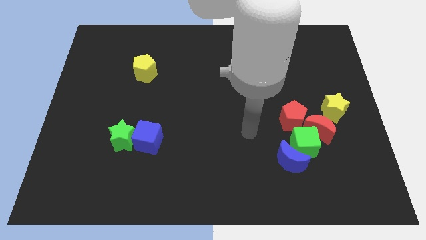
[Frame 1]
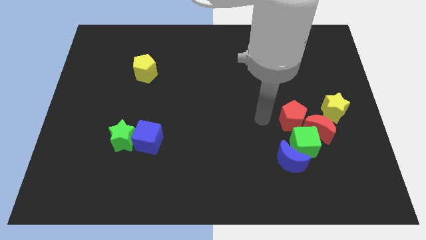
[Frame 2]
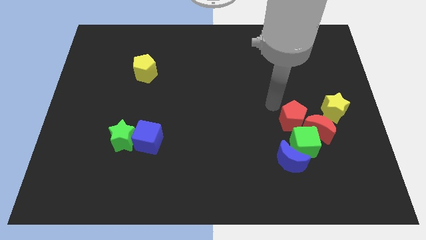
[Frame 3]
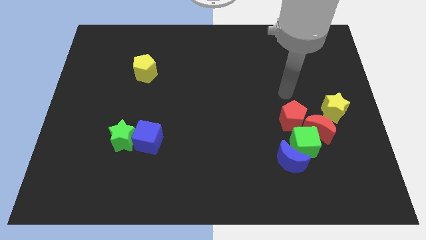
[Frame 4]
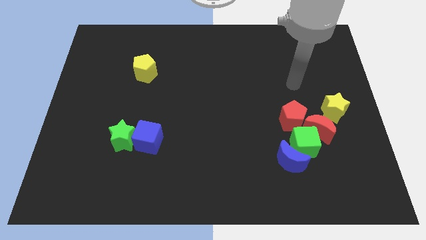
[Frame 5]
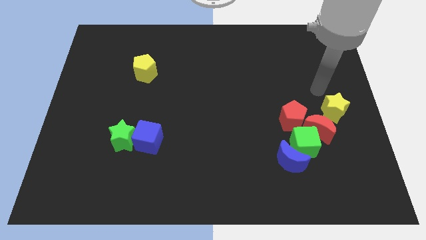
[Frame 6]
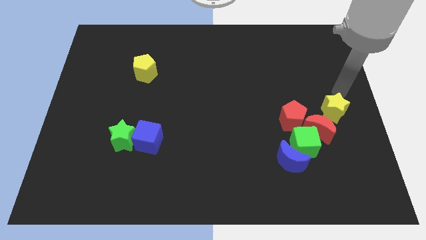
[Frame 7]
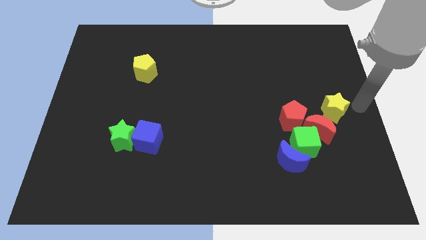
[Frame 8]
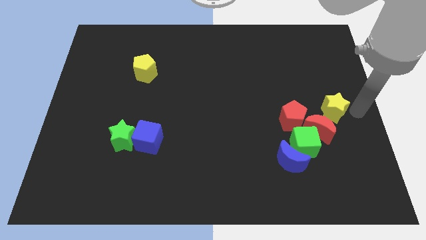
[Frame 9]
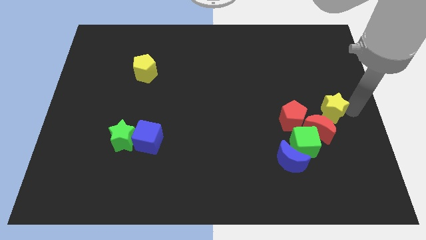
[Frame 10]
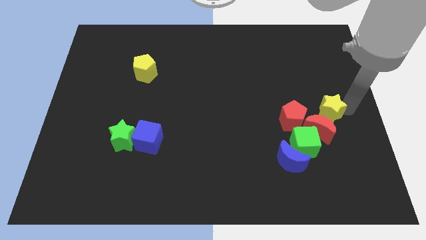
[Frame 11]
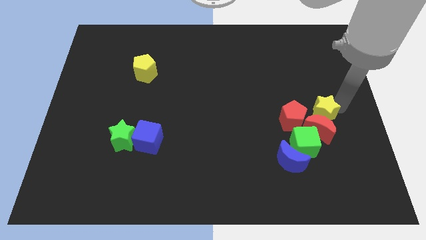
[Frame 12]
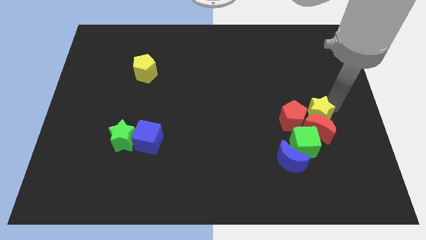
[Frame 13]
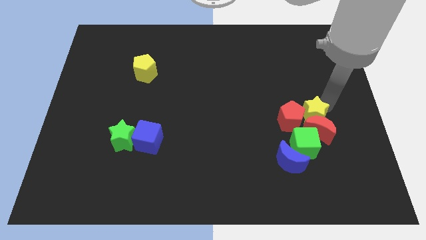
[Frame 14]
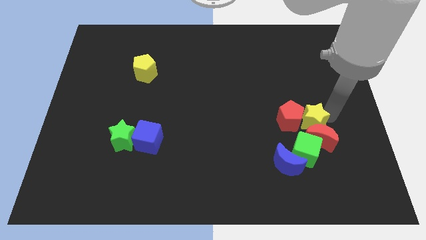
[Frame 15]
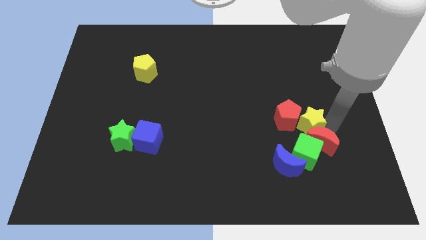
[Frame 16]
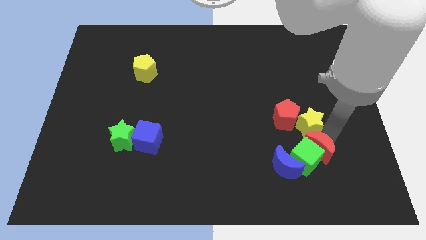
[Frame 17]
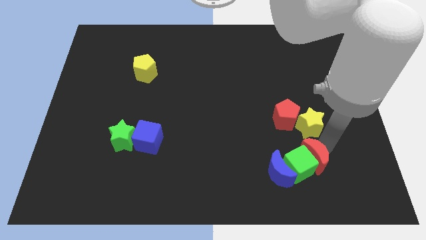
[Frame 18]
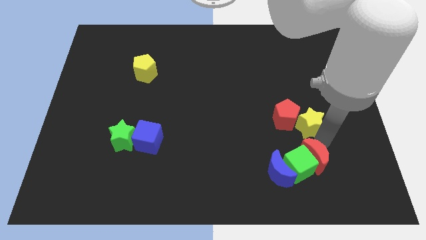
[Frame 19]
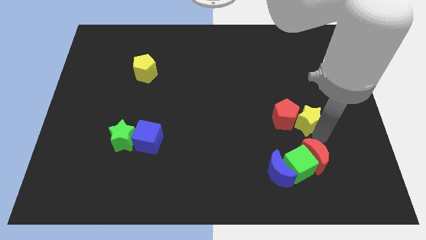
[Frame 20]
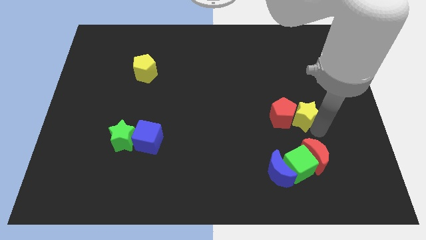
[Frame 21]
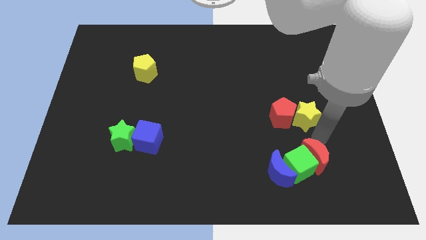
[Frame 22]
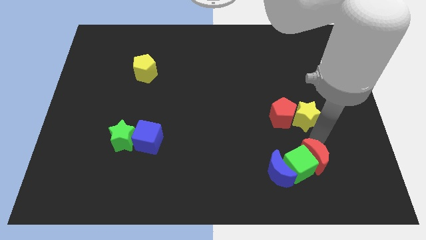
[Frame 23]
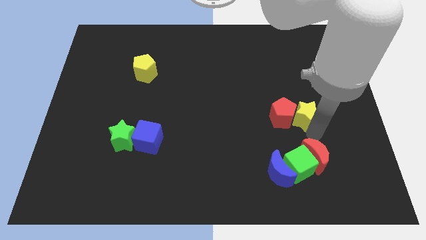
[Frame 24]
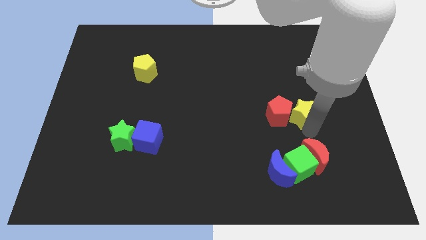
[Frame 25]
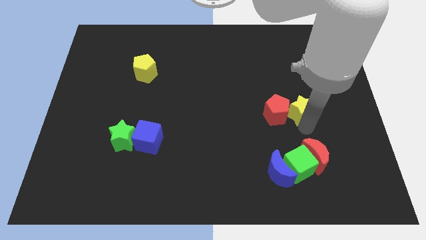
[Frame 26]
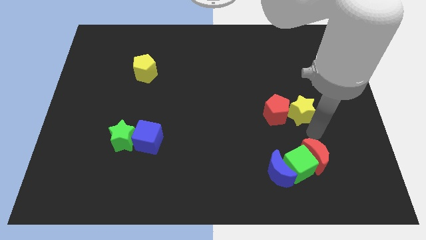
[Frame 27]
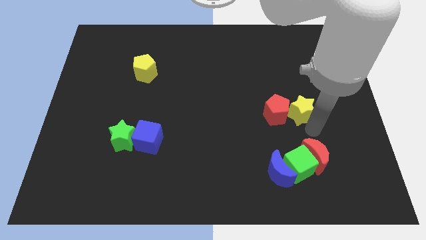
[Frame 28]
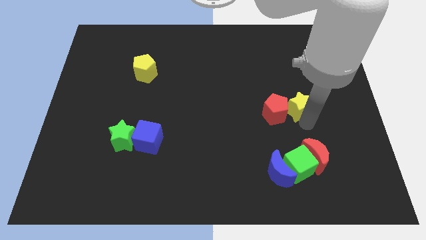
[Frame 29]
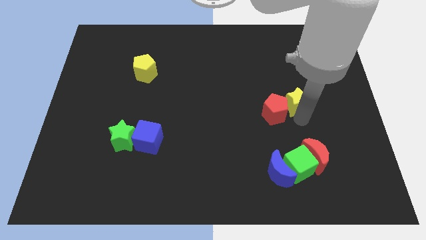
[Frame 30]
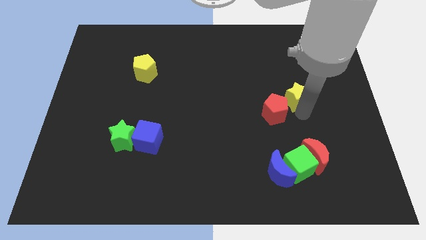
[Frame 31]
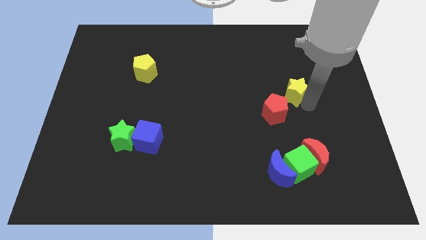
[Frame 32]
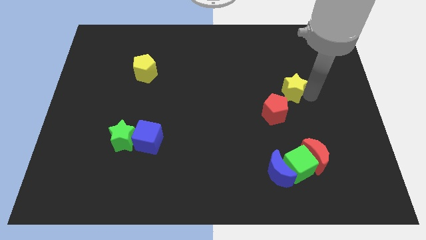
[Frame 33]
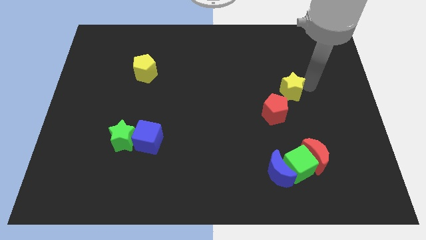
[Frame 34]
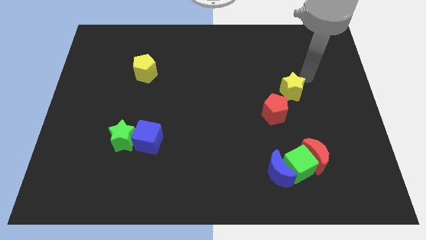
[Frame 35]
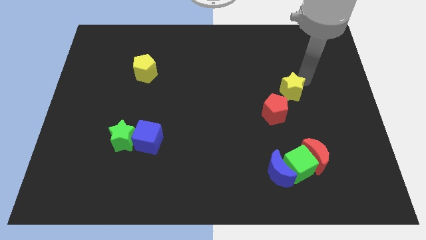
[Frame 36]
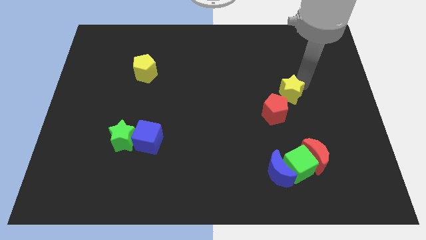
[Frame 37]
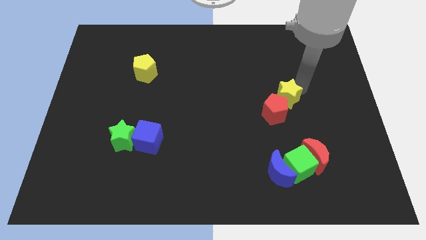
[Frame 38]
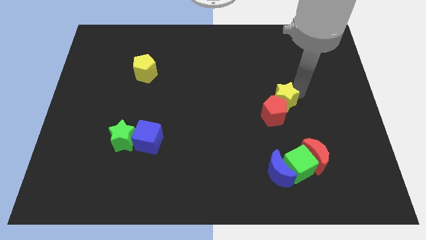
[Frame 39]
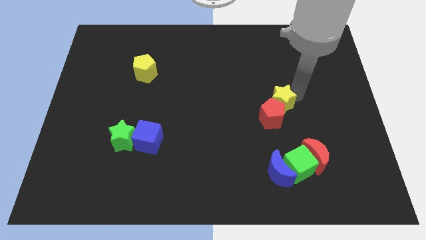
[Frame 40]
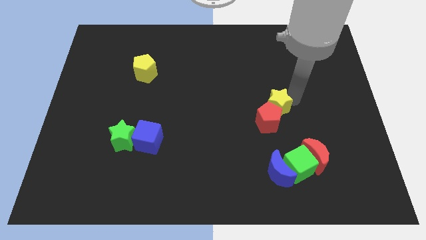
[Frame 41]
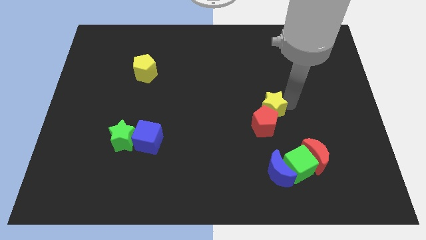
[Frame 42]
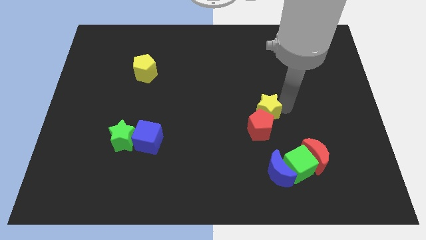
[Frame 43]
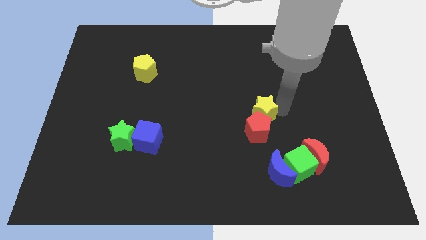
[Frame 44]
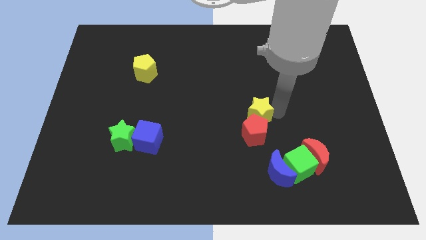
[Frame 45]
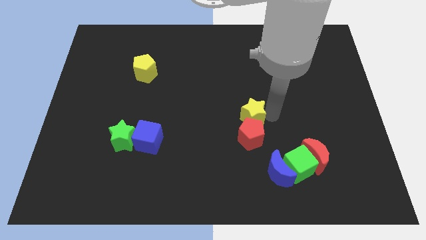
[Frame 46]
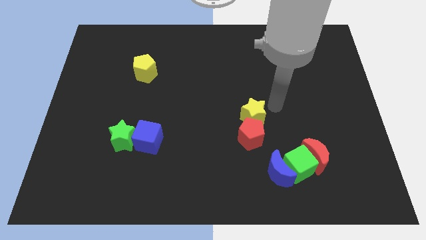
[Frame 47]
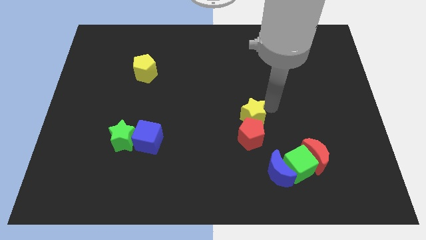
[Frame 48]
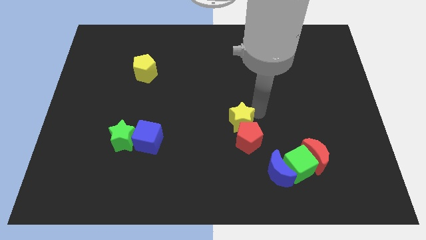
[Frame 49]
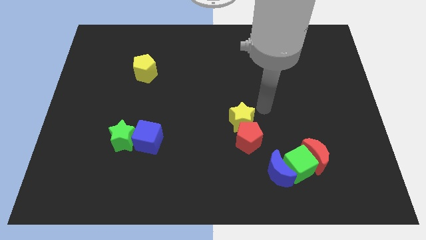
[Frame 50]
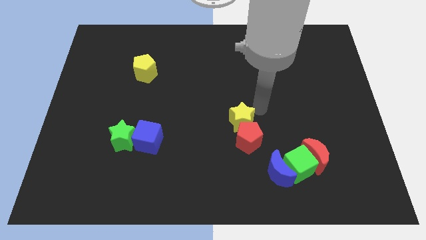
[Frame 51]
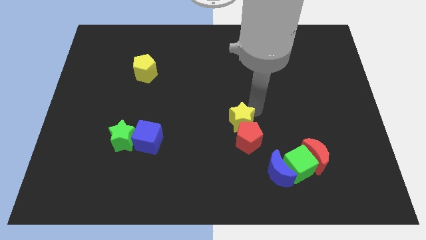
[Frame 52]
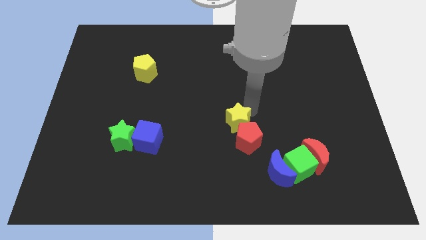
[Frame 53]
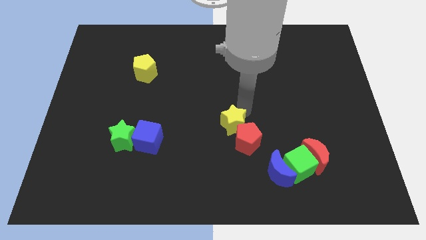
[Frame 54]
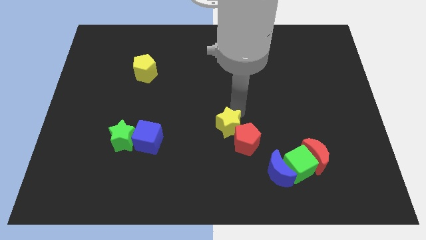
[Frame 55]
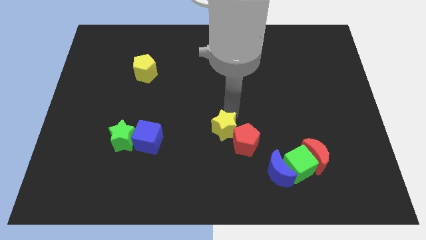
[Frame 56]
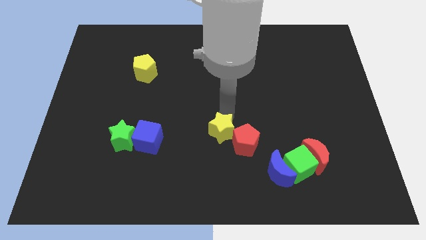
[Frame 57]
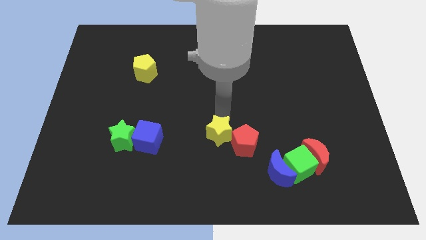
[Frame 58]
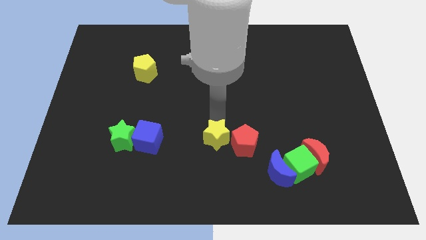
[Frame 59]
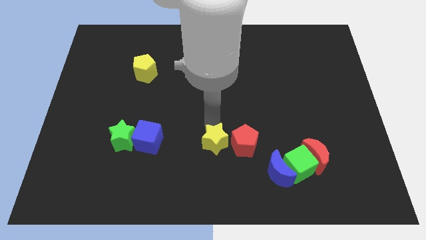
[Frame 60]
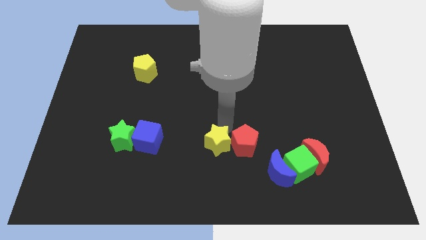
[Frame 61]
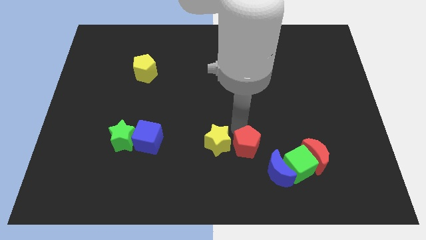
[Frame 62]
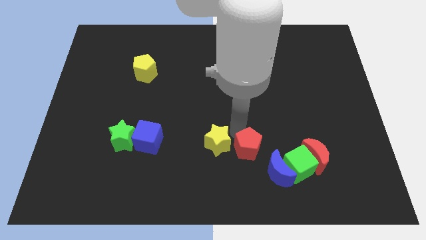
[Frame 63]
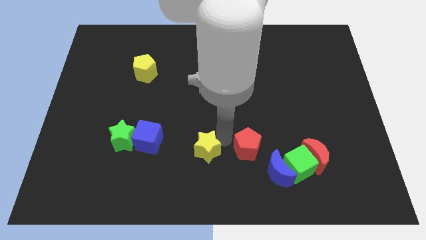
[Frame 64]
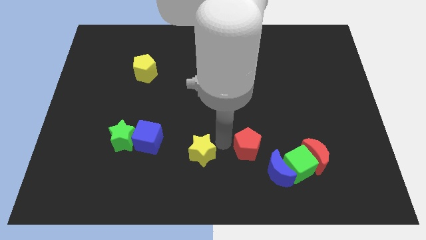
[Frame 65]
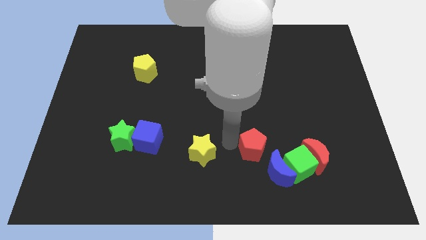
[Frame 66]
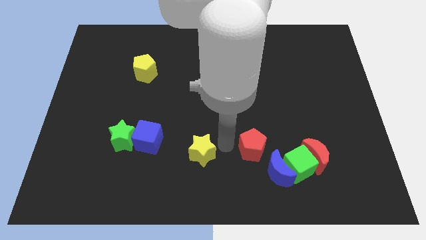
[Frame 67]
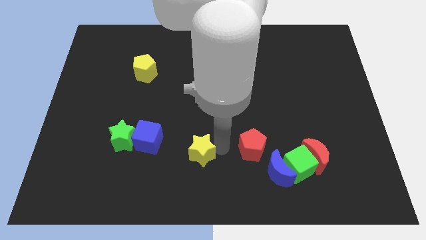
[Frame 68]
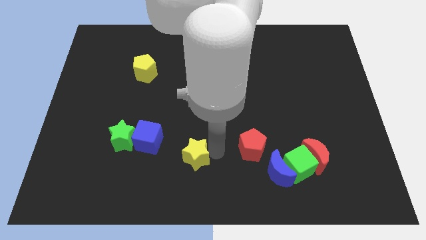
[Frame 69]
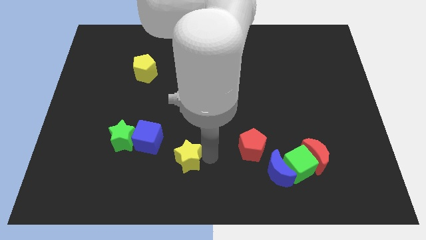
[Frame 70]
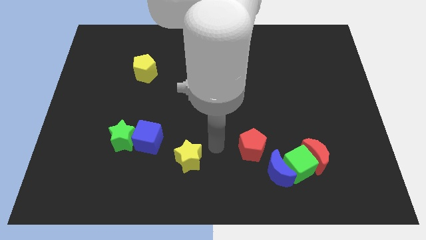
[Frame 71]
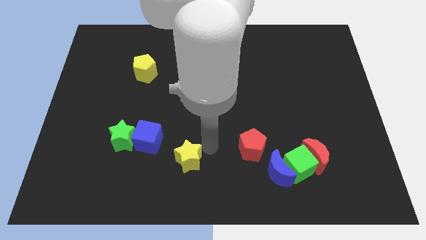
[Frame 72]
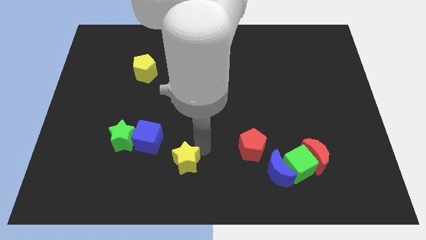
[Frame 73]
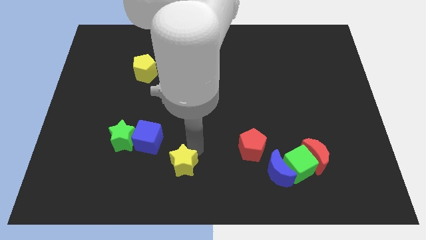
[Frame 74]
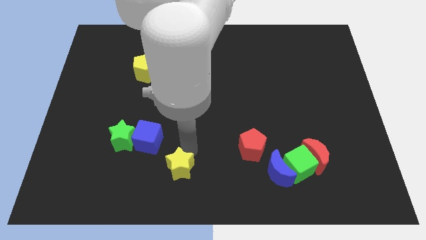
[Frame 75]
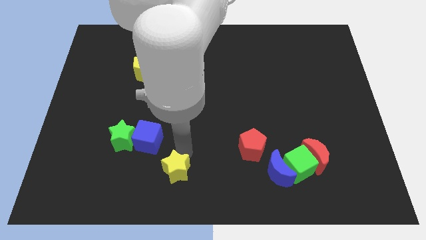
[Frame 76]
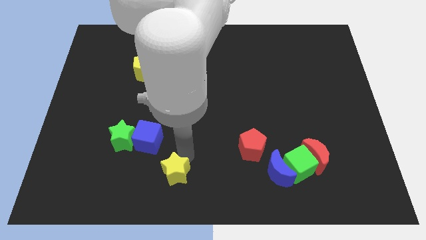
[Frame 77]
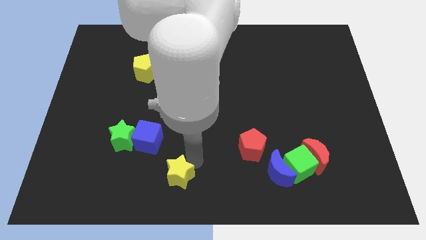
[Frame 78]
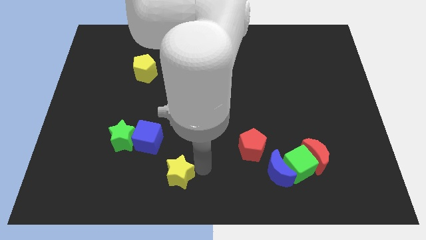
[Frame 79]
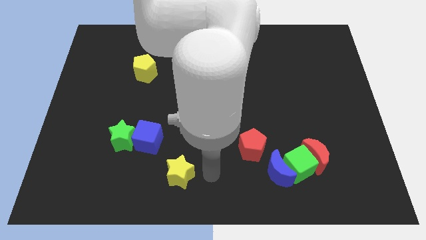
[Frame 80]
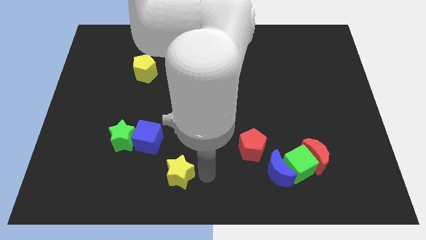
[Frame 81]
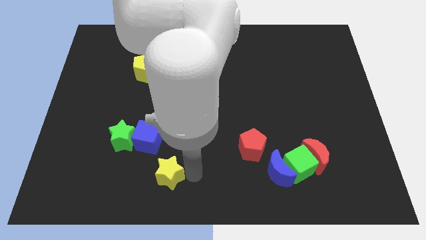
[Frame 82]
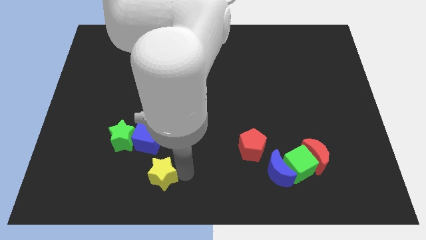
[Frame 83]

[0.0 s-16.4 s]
push the yellow star to the bottom side of the blue cube
